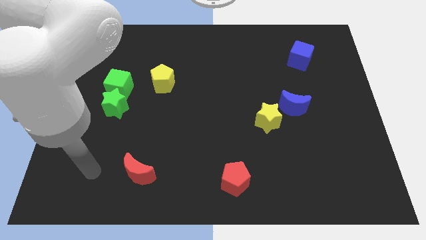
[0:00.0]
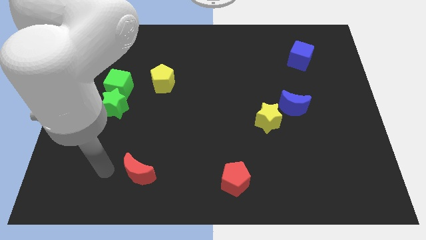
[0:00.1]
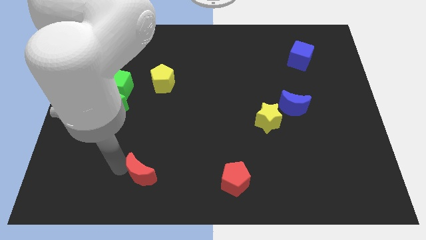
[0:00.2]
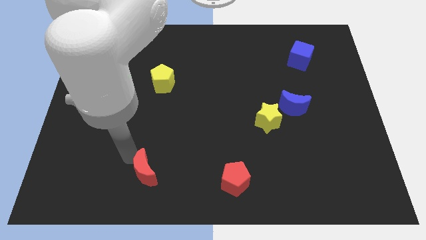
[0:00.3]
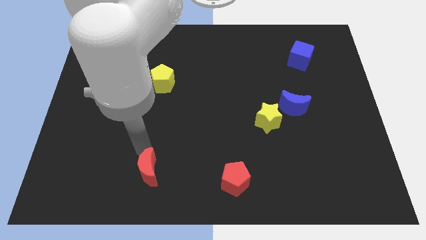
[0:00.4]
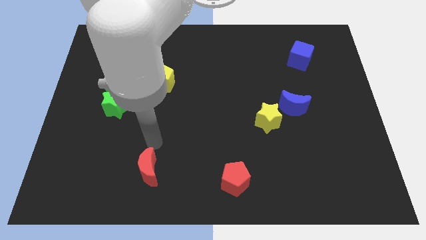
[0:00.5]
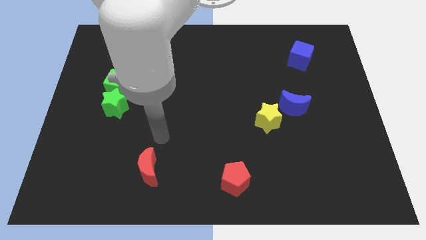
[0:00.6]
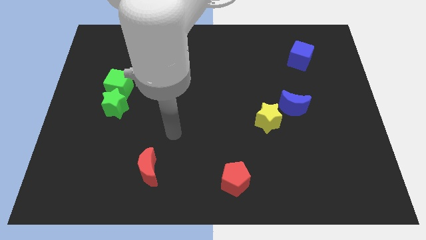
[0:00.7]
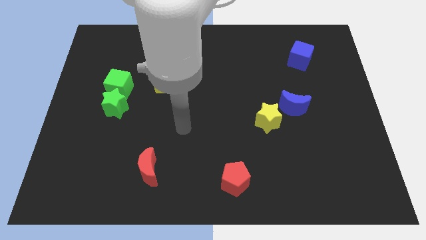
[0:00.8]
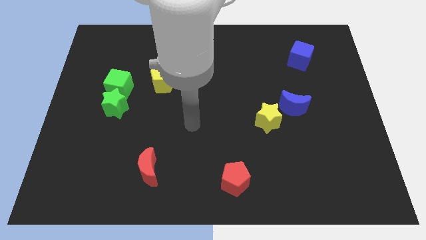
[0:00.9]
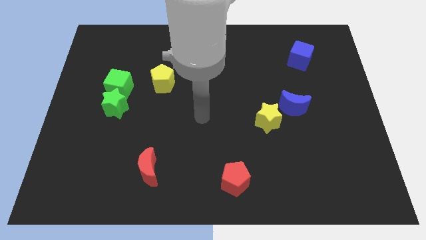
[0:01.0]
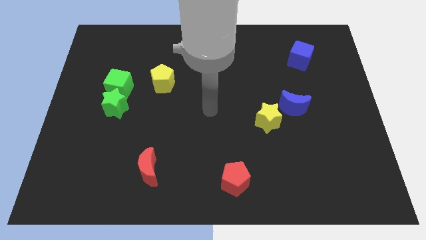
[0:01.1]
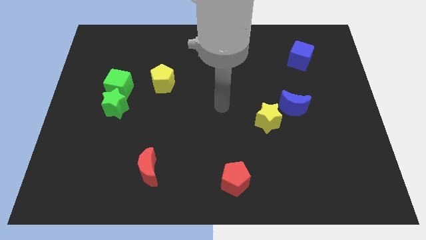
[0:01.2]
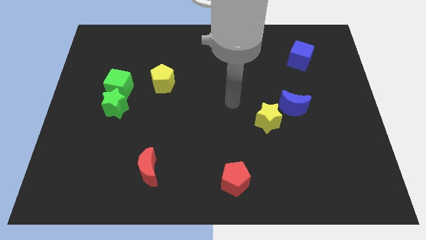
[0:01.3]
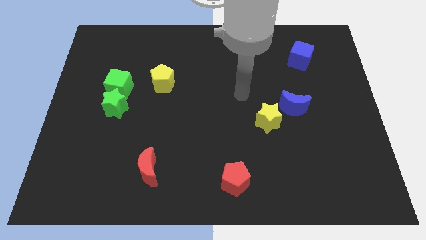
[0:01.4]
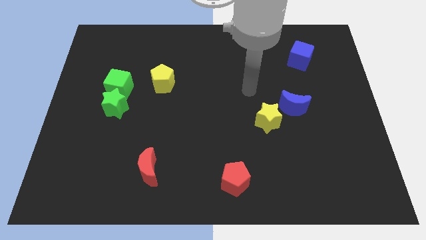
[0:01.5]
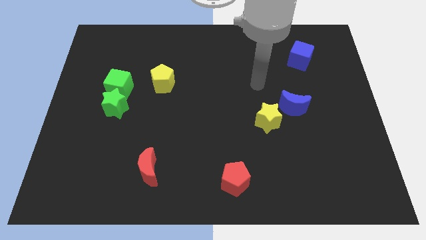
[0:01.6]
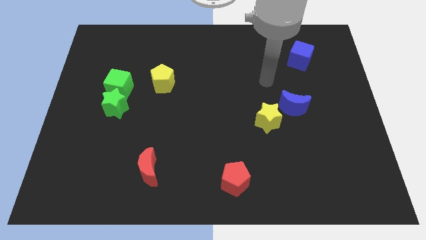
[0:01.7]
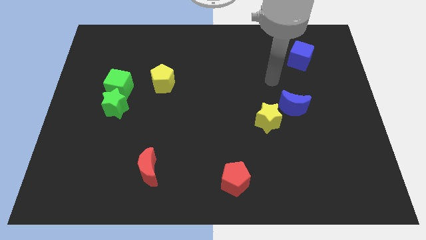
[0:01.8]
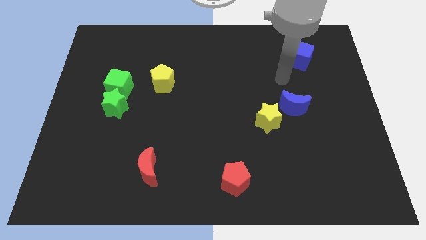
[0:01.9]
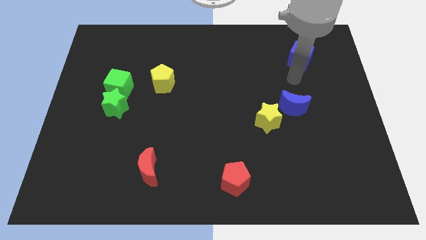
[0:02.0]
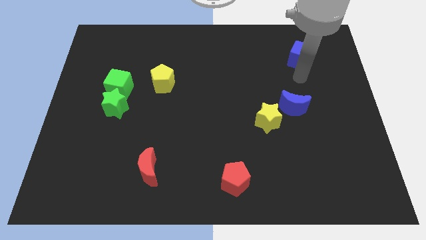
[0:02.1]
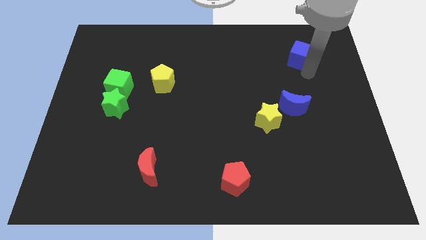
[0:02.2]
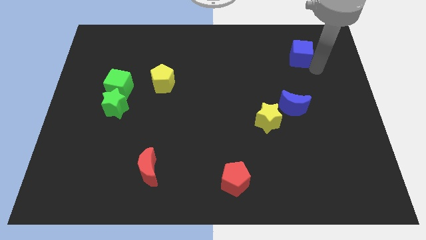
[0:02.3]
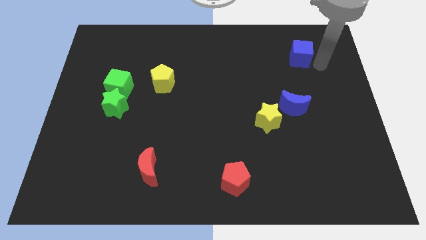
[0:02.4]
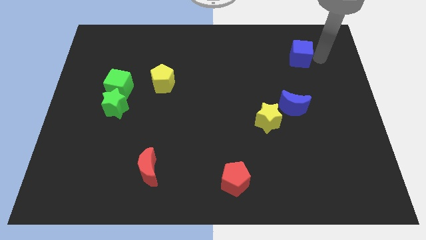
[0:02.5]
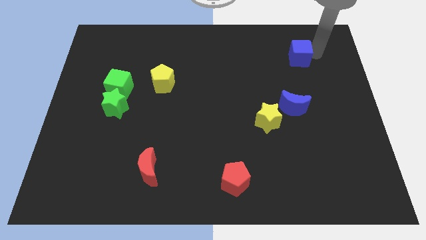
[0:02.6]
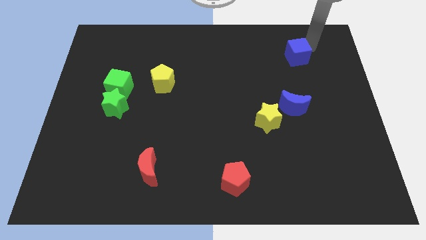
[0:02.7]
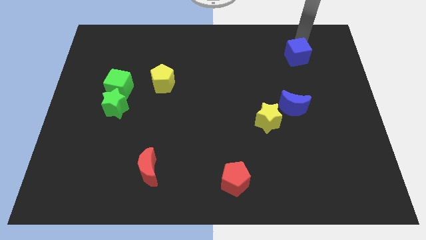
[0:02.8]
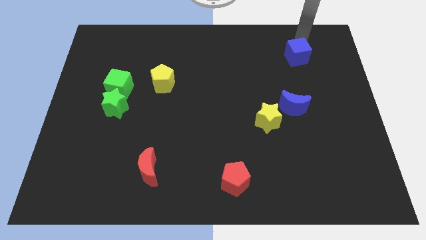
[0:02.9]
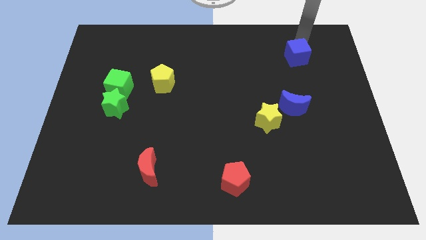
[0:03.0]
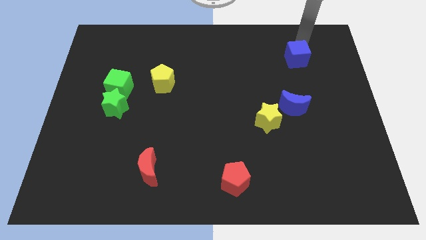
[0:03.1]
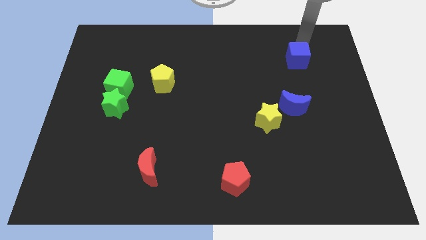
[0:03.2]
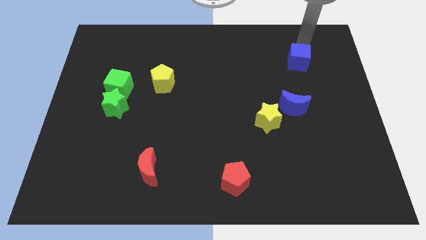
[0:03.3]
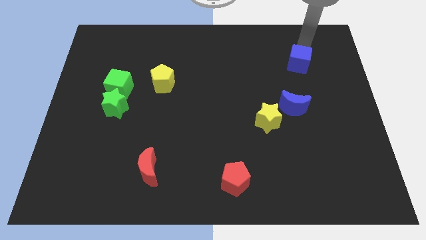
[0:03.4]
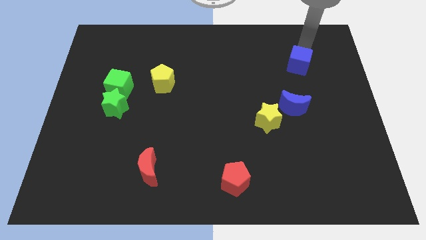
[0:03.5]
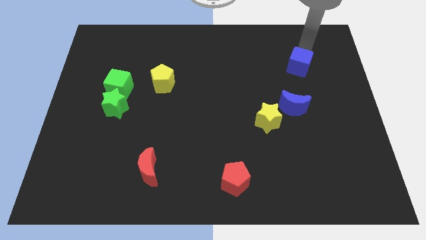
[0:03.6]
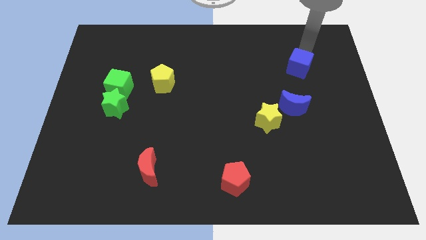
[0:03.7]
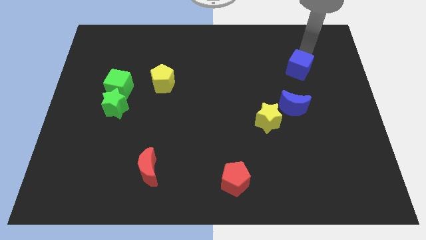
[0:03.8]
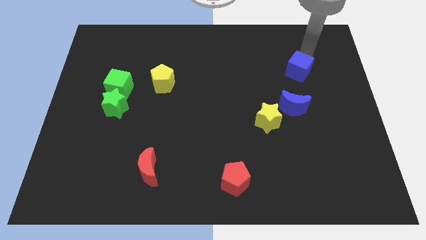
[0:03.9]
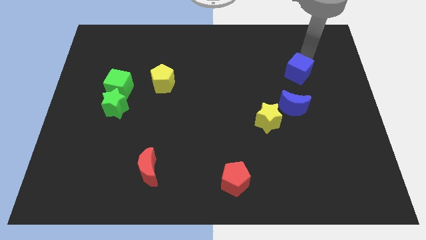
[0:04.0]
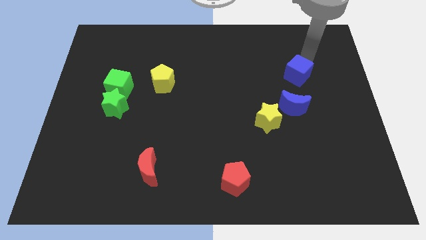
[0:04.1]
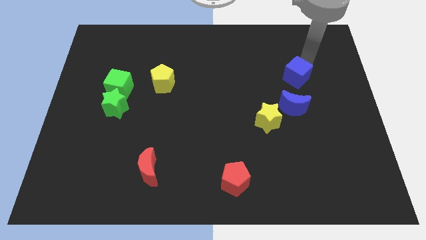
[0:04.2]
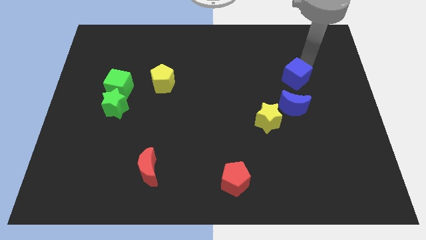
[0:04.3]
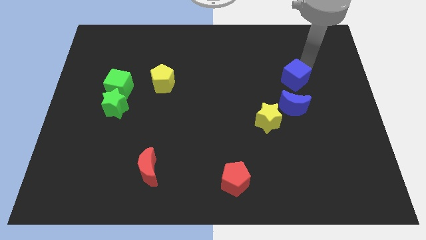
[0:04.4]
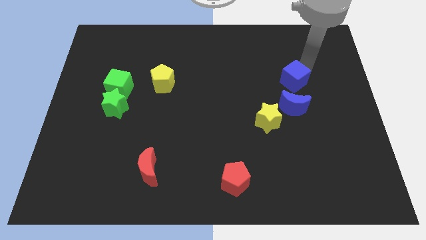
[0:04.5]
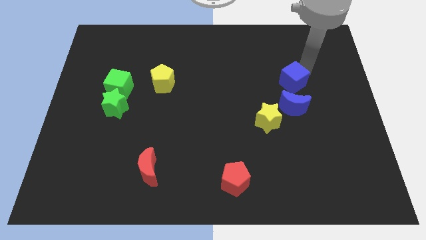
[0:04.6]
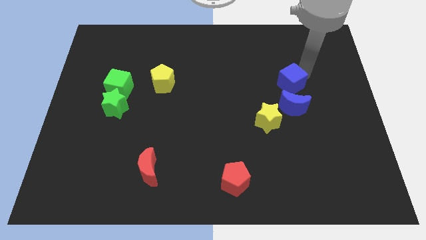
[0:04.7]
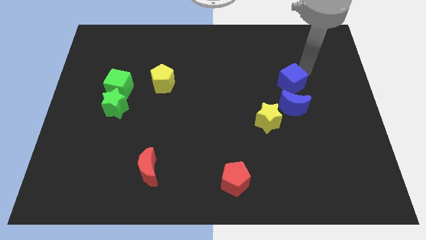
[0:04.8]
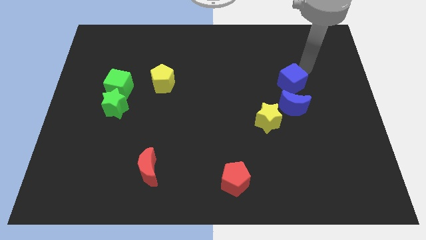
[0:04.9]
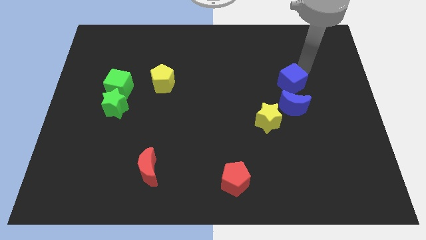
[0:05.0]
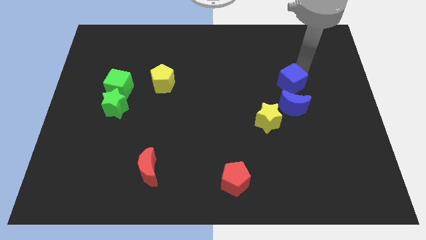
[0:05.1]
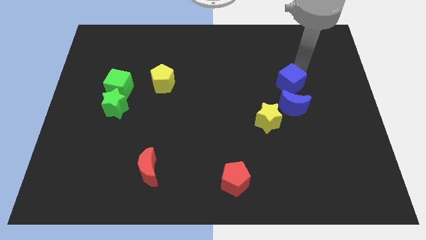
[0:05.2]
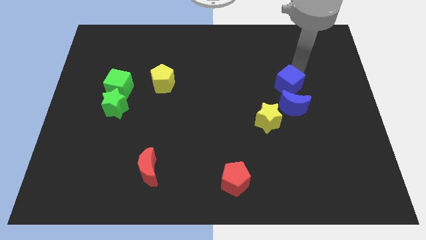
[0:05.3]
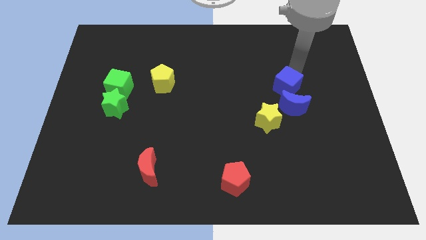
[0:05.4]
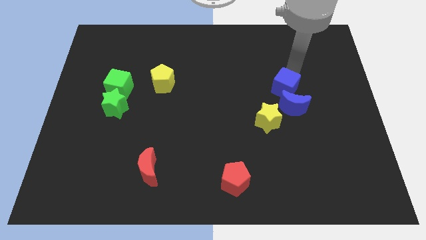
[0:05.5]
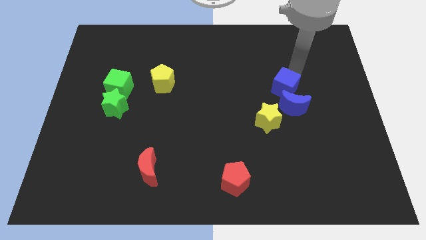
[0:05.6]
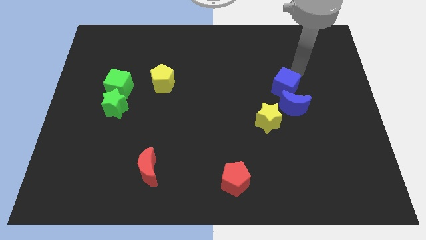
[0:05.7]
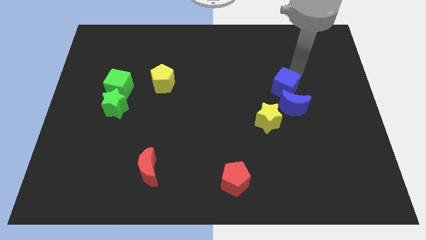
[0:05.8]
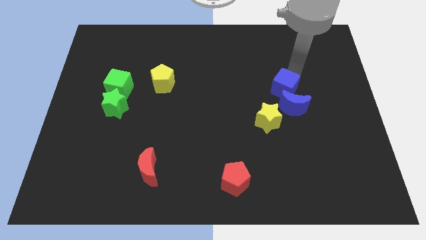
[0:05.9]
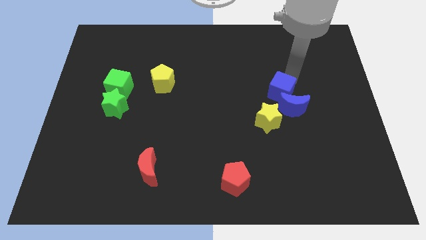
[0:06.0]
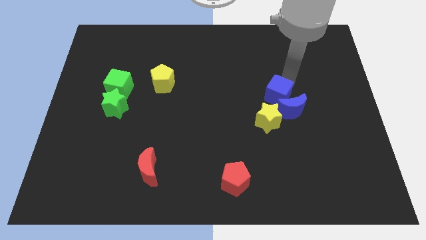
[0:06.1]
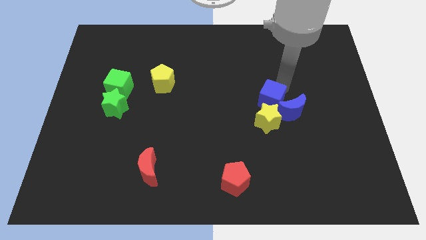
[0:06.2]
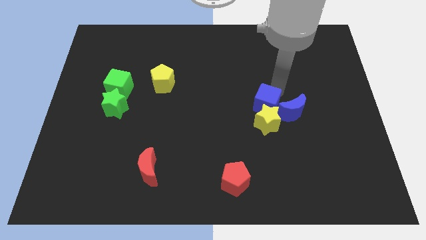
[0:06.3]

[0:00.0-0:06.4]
push the blue cube next to the yellow star

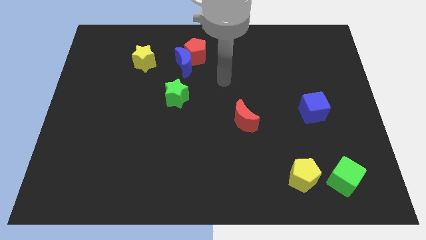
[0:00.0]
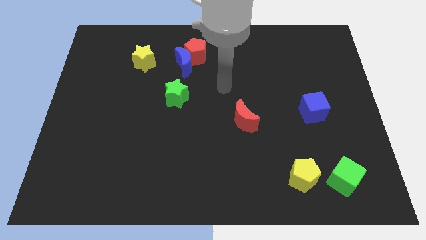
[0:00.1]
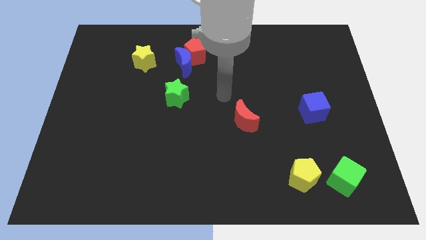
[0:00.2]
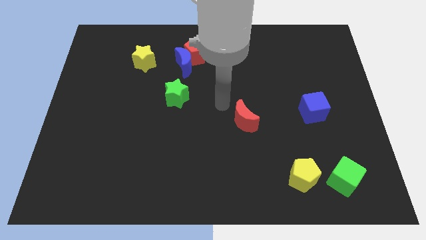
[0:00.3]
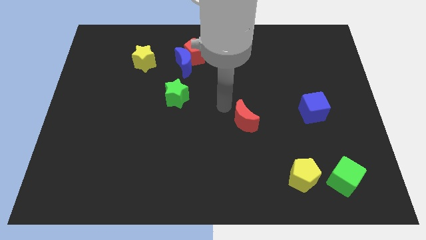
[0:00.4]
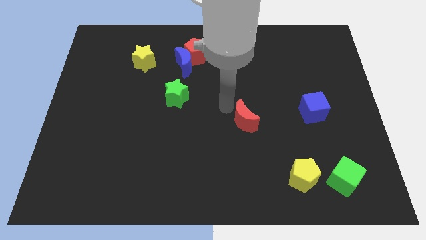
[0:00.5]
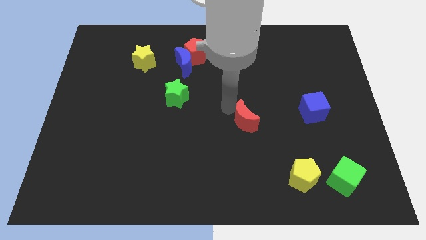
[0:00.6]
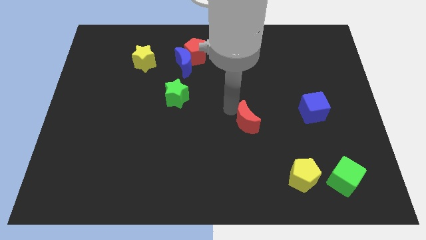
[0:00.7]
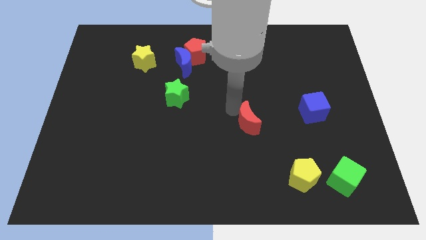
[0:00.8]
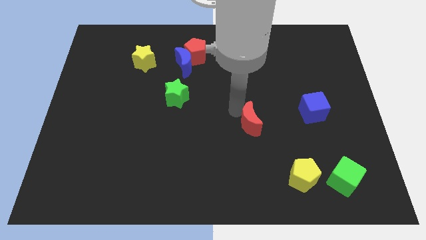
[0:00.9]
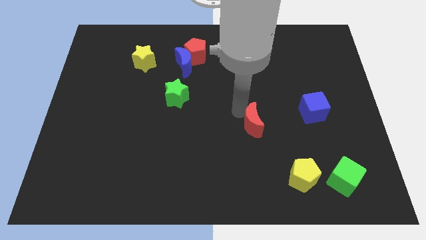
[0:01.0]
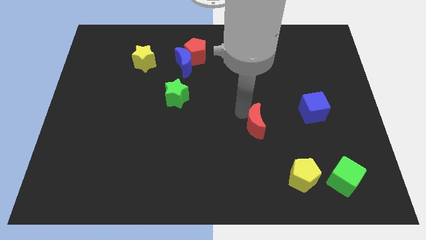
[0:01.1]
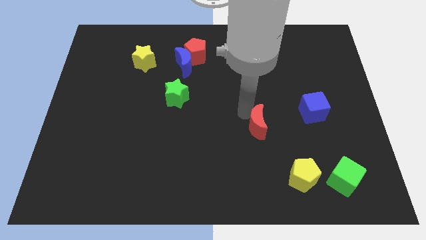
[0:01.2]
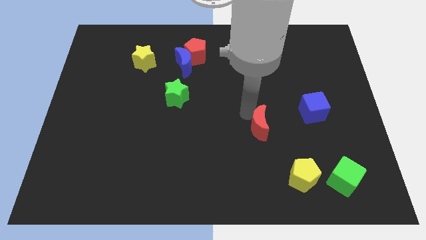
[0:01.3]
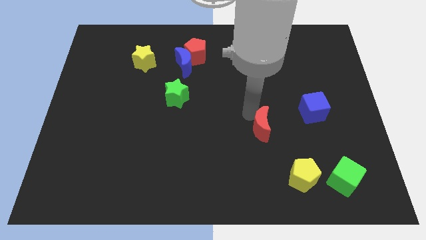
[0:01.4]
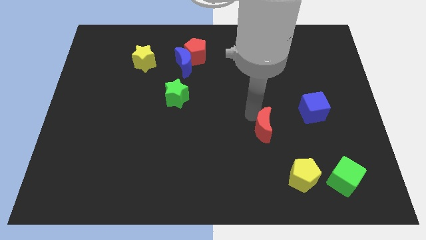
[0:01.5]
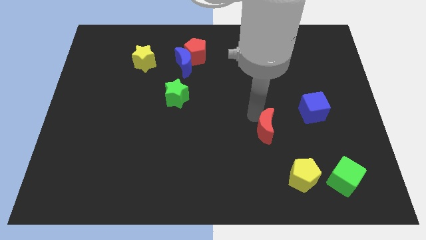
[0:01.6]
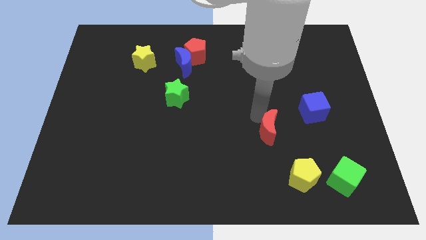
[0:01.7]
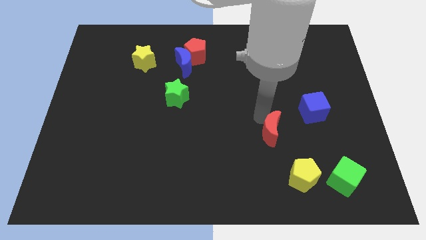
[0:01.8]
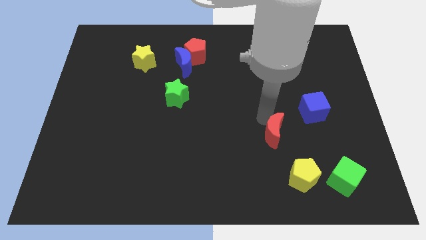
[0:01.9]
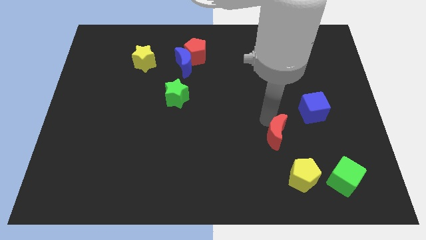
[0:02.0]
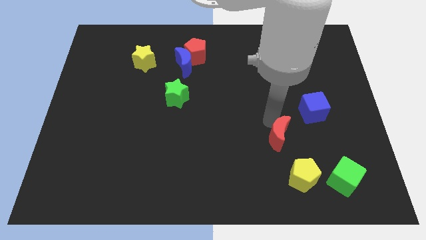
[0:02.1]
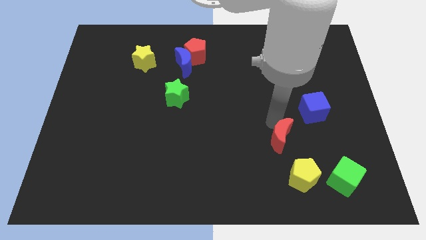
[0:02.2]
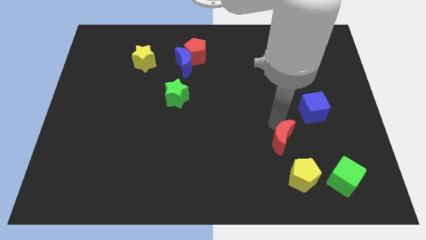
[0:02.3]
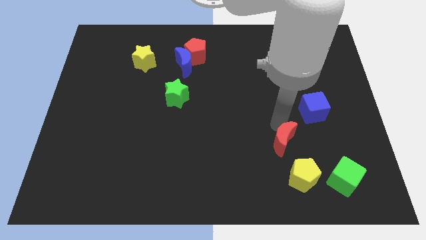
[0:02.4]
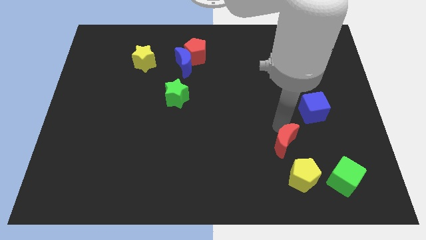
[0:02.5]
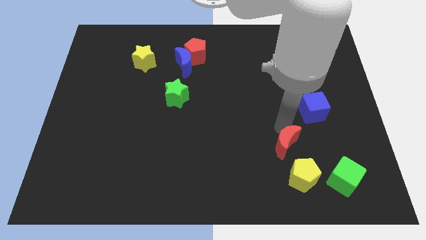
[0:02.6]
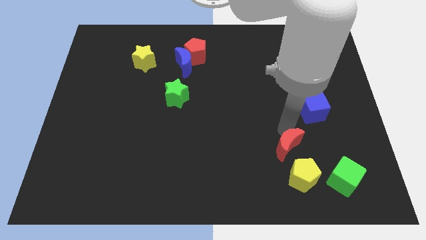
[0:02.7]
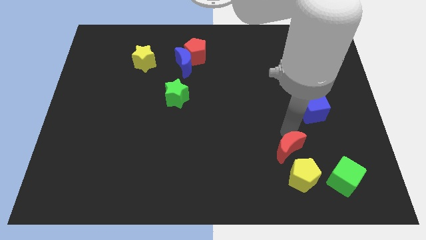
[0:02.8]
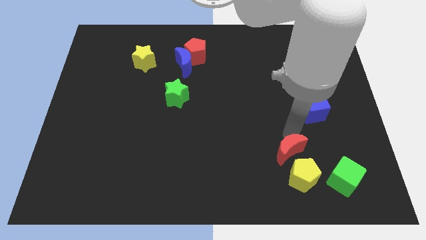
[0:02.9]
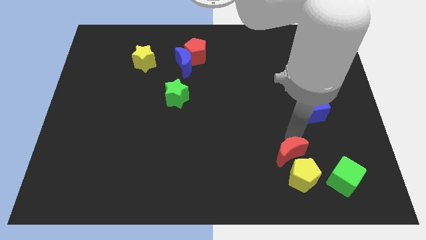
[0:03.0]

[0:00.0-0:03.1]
put the red moon to the yellow pentagon
